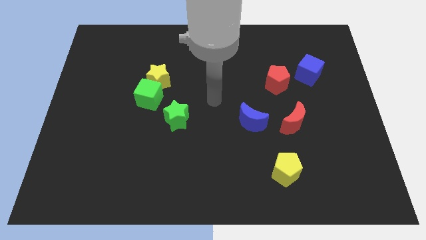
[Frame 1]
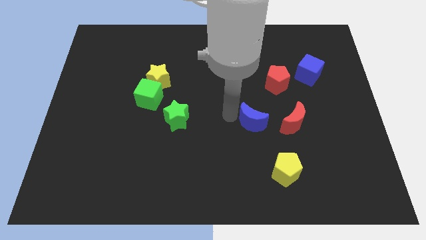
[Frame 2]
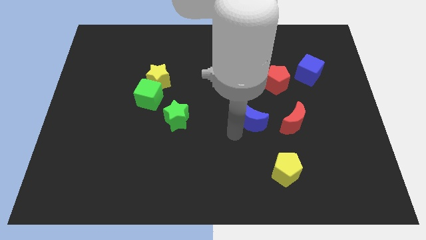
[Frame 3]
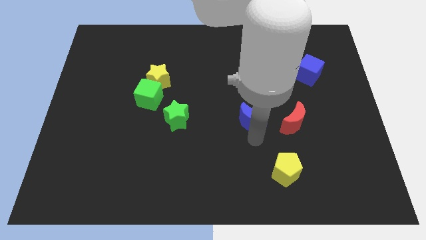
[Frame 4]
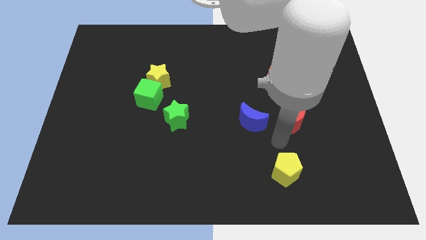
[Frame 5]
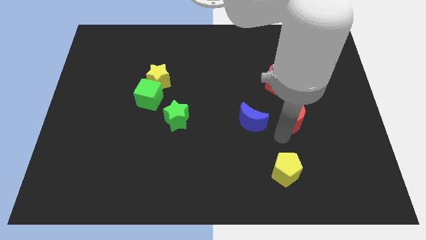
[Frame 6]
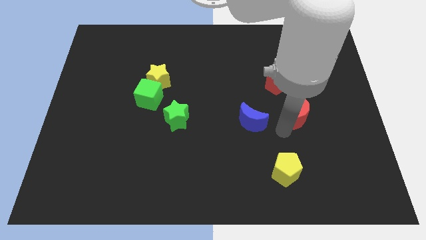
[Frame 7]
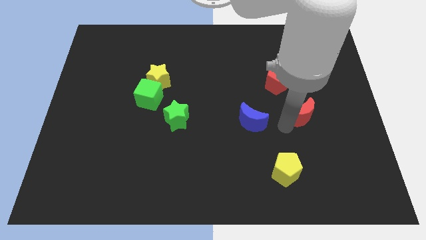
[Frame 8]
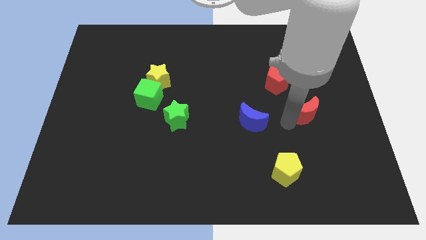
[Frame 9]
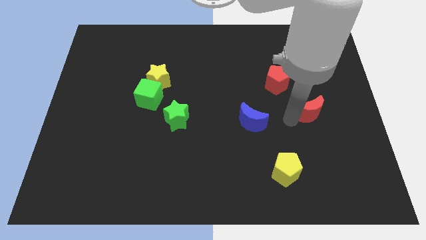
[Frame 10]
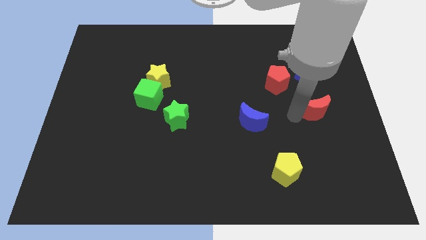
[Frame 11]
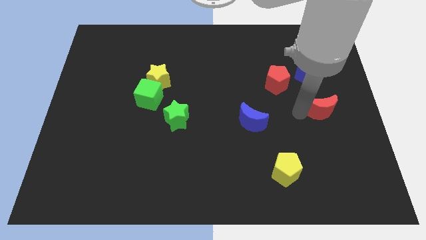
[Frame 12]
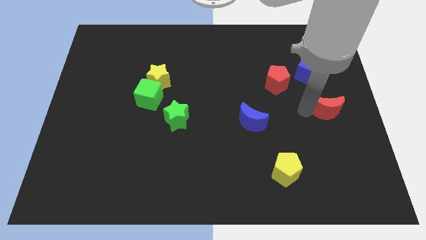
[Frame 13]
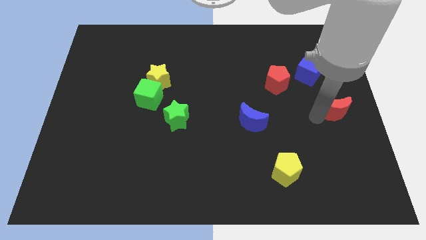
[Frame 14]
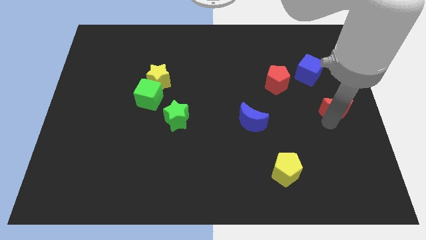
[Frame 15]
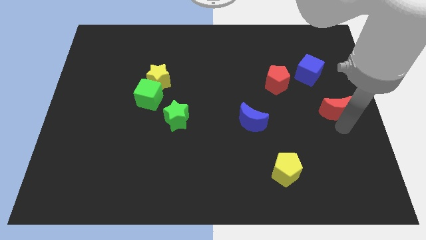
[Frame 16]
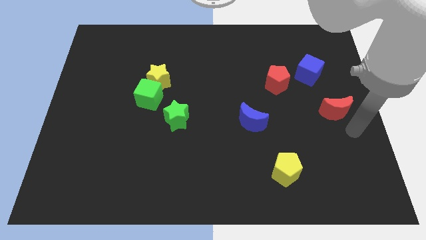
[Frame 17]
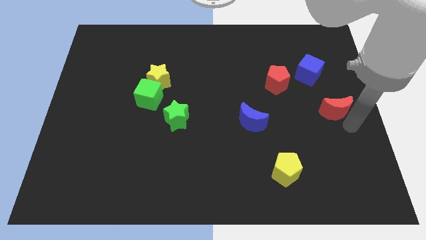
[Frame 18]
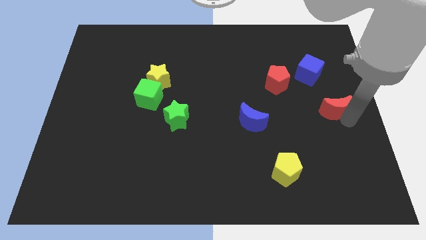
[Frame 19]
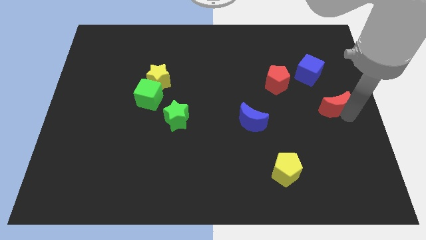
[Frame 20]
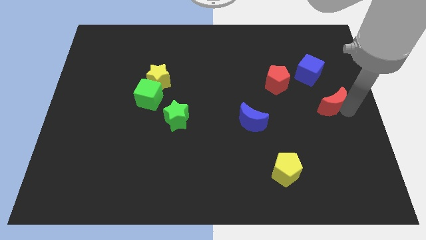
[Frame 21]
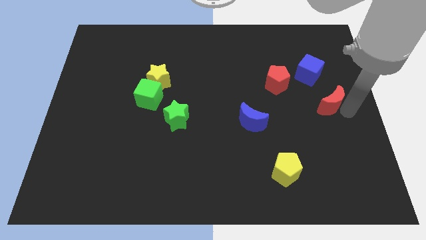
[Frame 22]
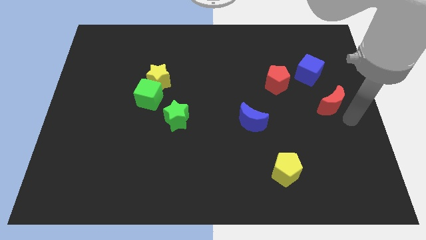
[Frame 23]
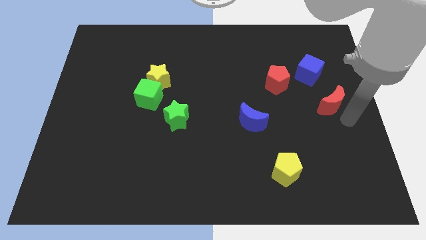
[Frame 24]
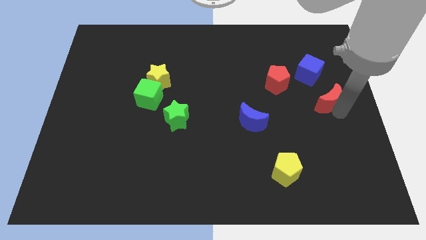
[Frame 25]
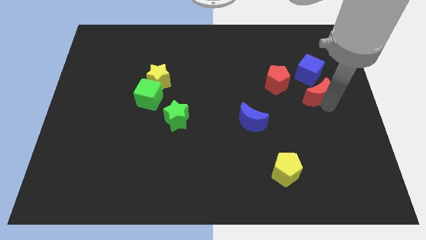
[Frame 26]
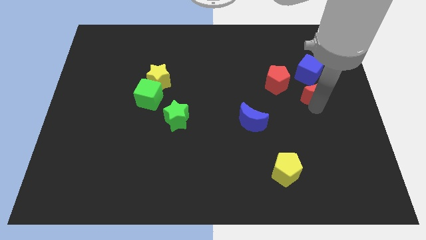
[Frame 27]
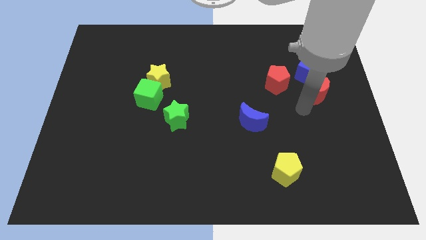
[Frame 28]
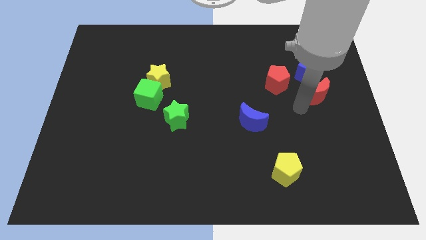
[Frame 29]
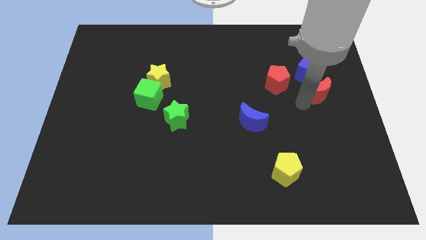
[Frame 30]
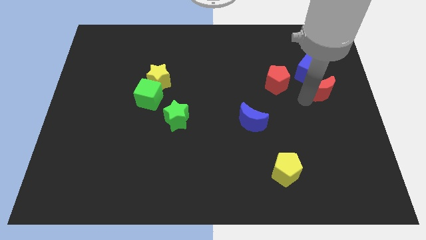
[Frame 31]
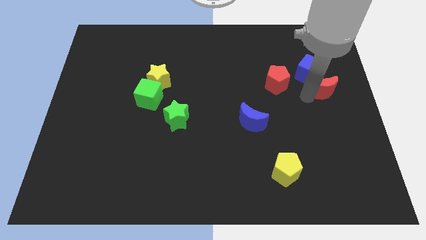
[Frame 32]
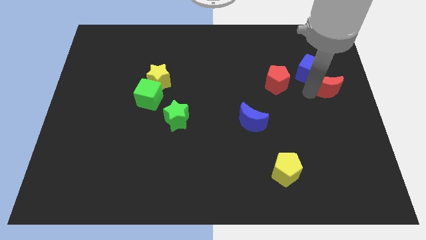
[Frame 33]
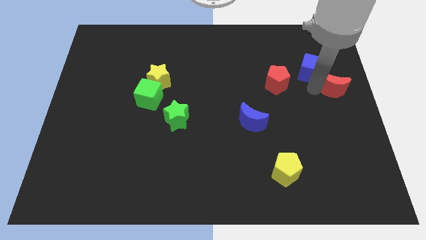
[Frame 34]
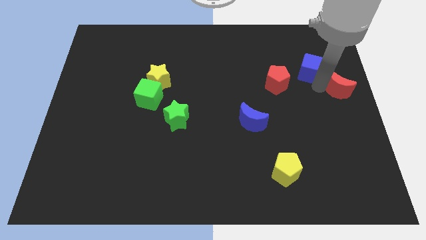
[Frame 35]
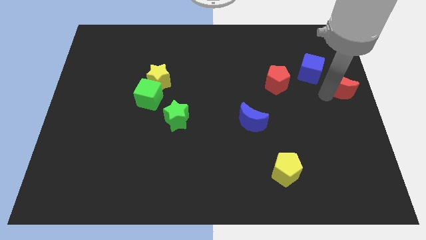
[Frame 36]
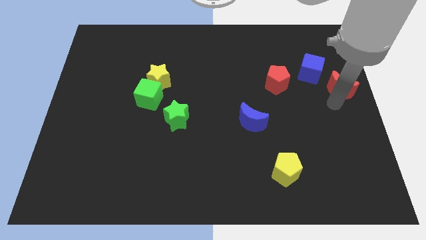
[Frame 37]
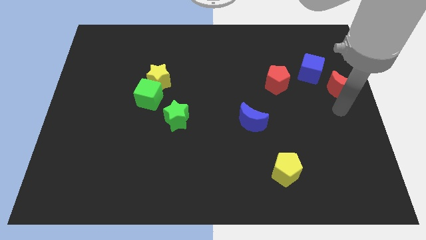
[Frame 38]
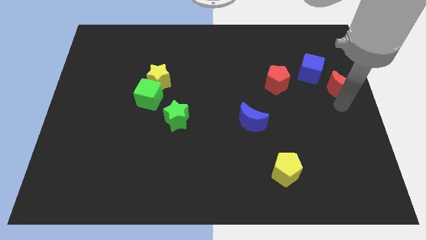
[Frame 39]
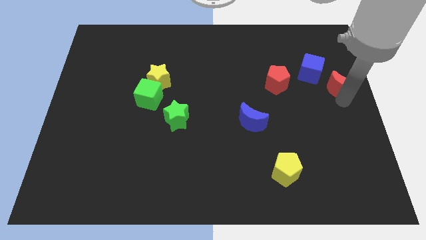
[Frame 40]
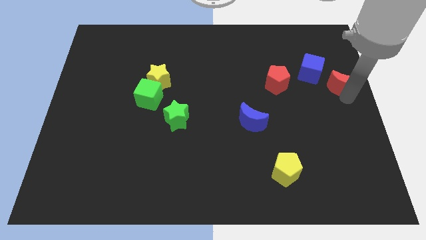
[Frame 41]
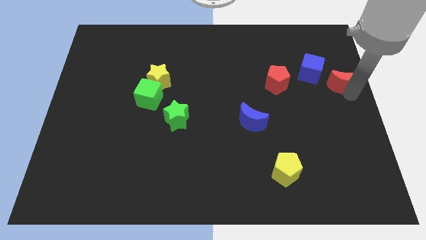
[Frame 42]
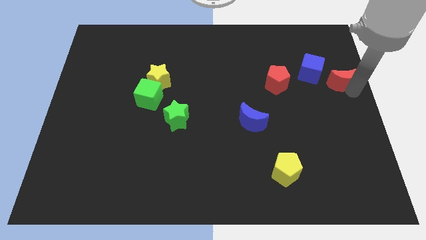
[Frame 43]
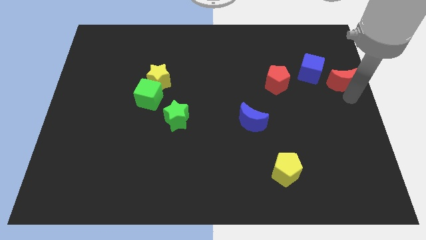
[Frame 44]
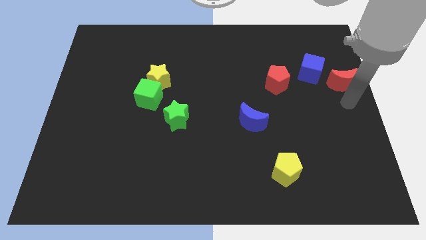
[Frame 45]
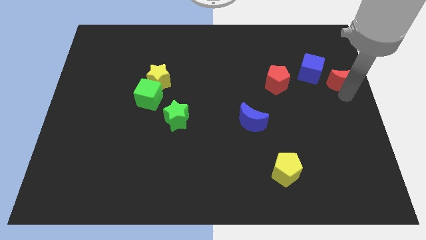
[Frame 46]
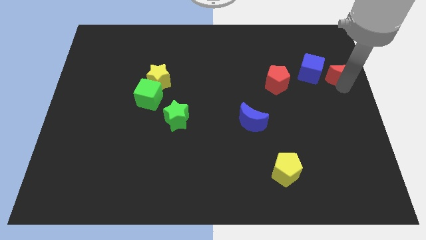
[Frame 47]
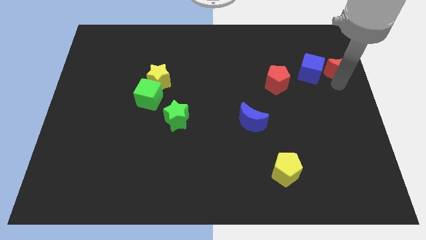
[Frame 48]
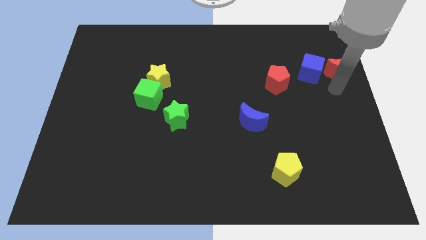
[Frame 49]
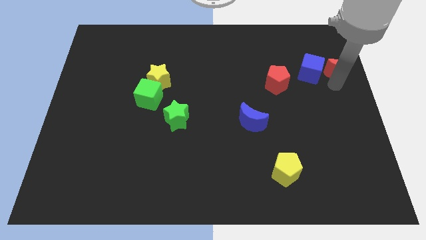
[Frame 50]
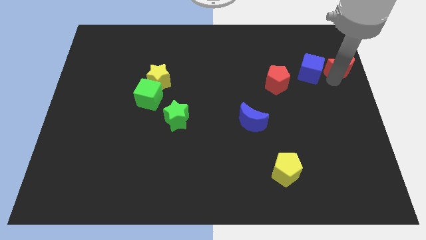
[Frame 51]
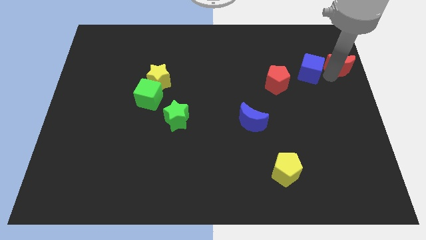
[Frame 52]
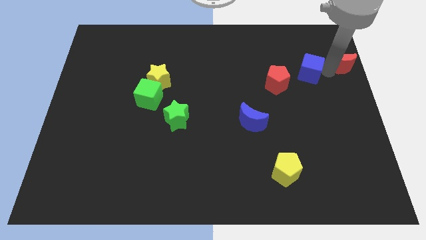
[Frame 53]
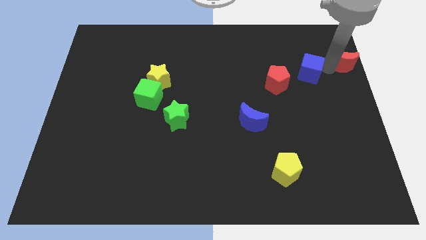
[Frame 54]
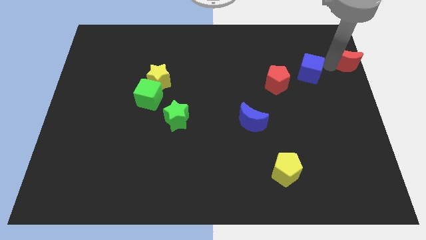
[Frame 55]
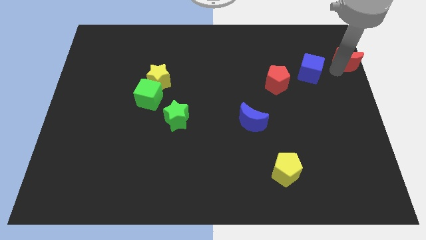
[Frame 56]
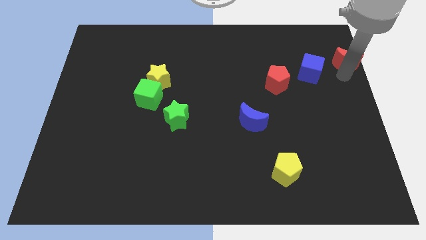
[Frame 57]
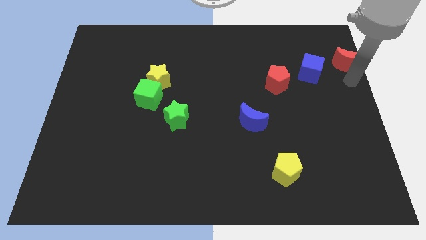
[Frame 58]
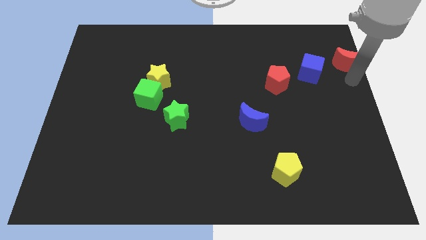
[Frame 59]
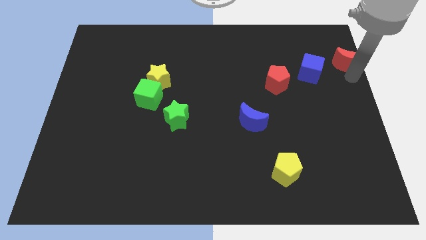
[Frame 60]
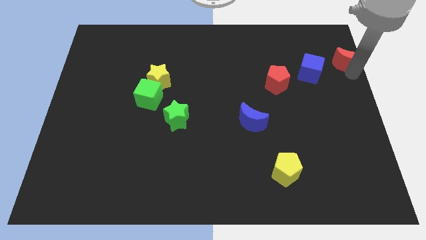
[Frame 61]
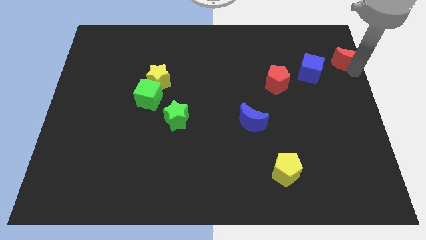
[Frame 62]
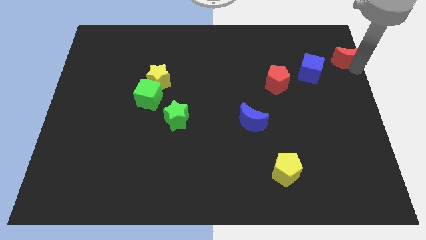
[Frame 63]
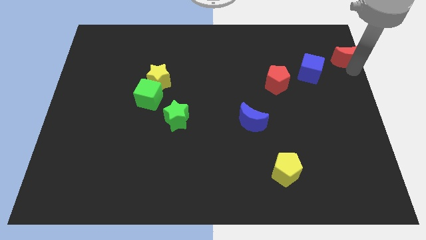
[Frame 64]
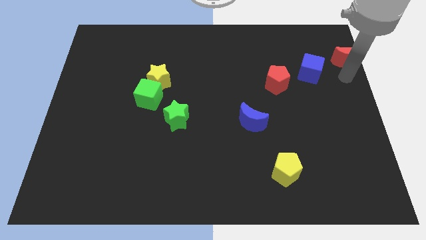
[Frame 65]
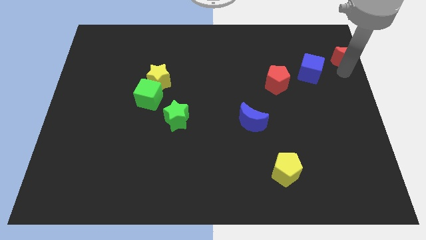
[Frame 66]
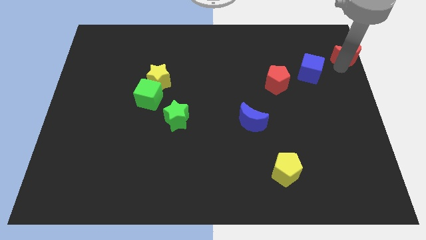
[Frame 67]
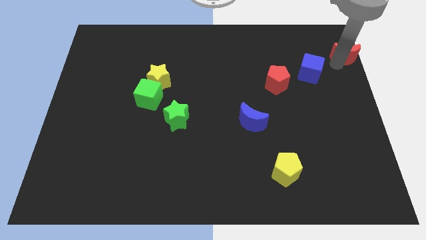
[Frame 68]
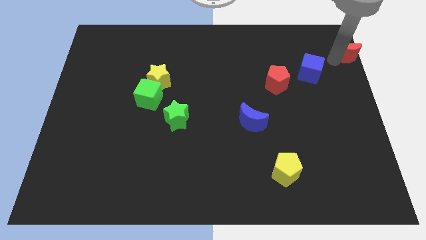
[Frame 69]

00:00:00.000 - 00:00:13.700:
move the red moon to the top right of the board

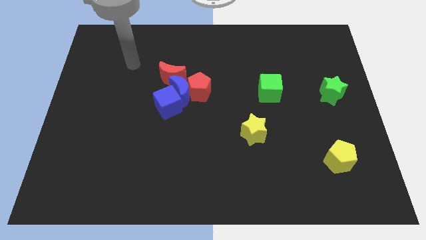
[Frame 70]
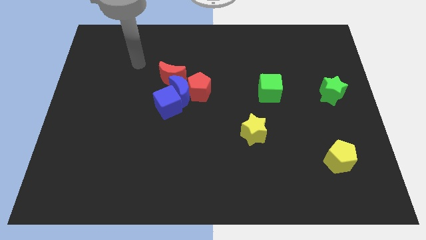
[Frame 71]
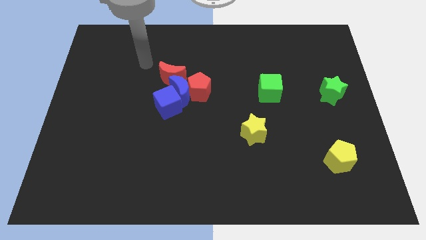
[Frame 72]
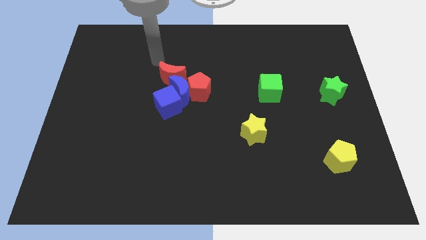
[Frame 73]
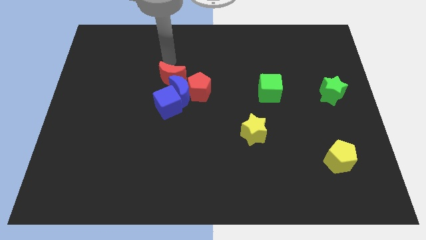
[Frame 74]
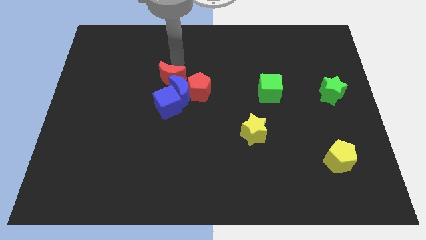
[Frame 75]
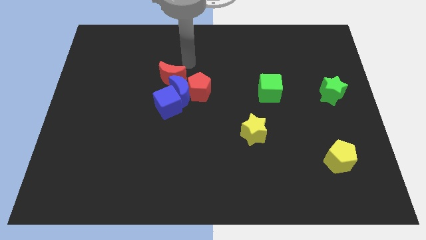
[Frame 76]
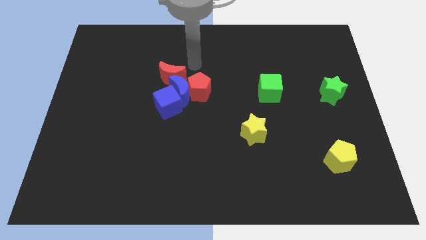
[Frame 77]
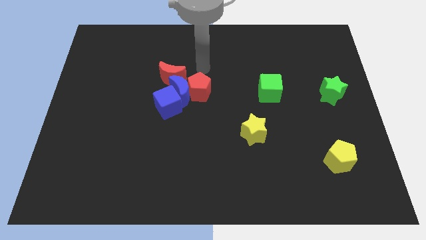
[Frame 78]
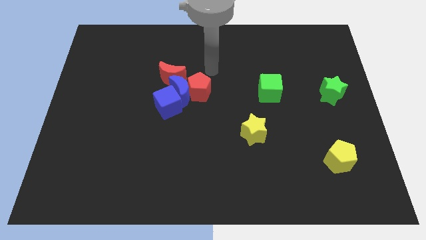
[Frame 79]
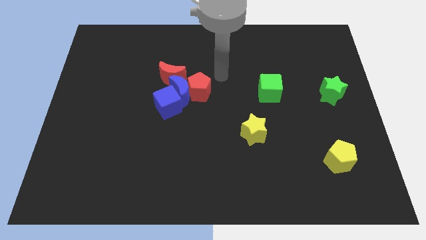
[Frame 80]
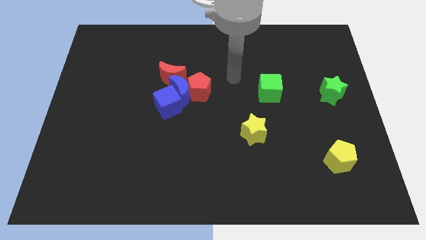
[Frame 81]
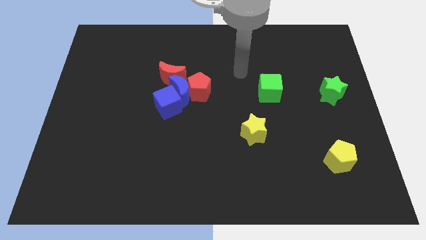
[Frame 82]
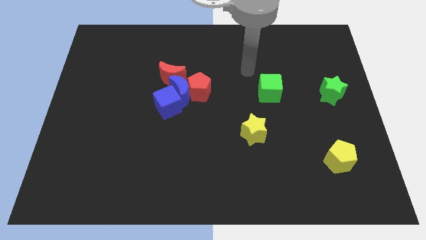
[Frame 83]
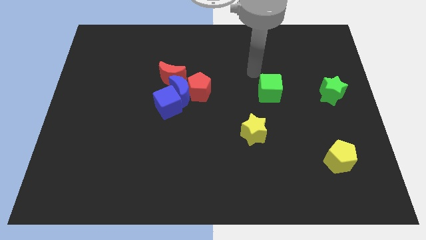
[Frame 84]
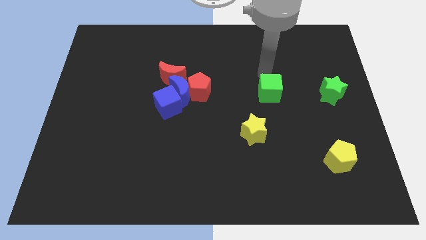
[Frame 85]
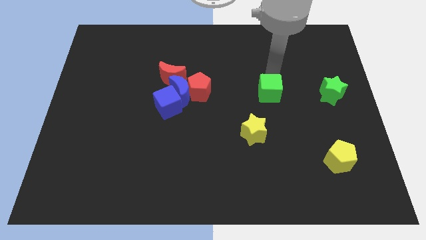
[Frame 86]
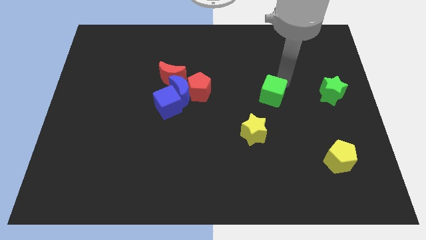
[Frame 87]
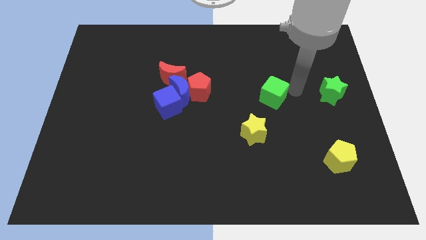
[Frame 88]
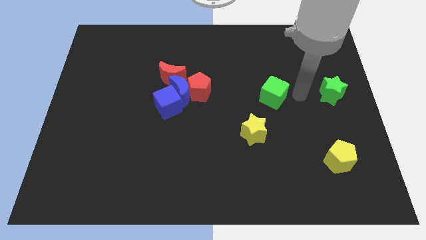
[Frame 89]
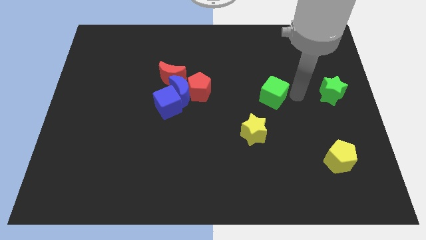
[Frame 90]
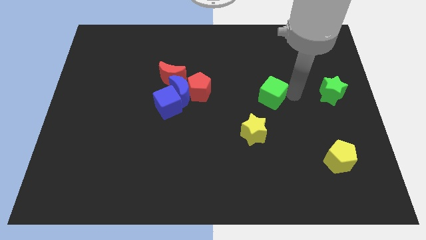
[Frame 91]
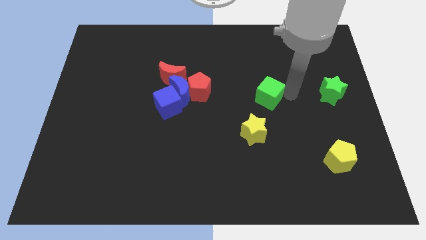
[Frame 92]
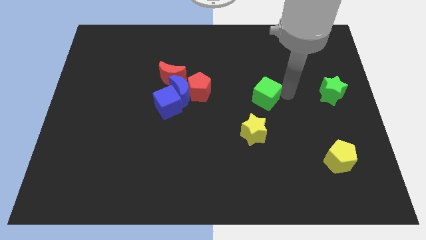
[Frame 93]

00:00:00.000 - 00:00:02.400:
put the green cube to the center of the board
